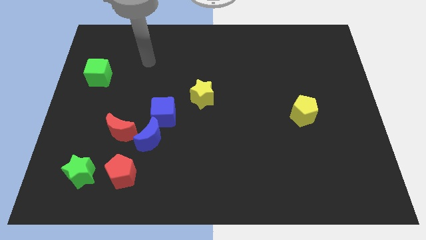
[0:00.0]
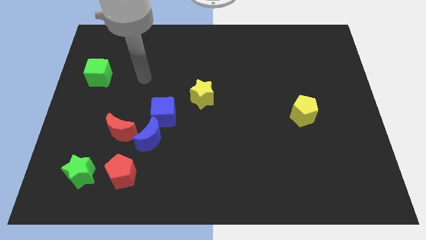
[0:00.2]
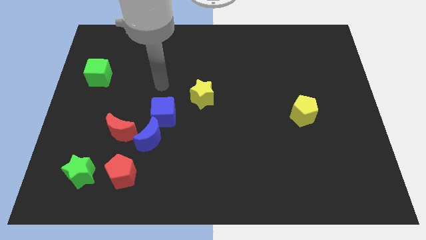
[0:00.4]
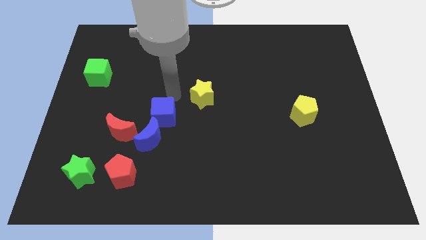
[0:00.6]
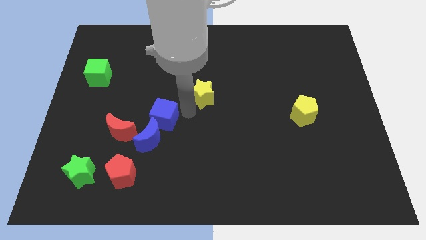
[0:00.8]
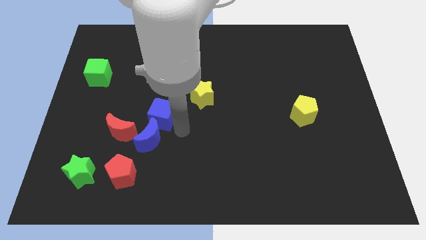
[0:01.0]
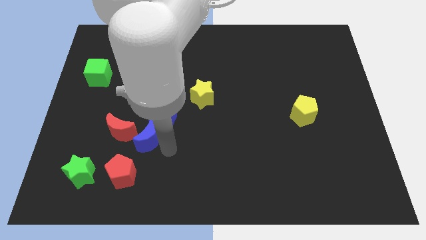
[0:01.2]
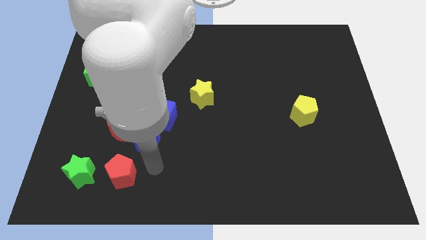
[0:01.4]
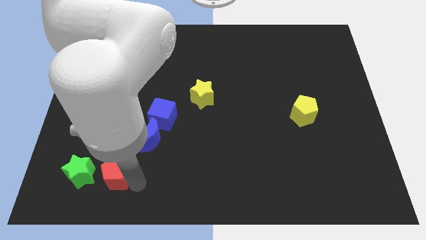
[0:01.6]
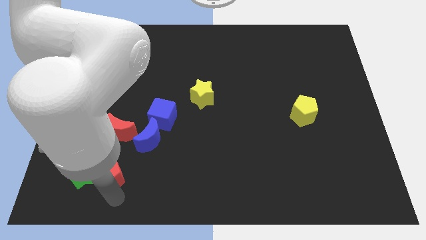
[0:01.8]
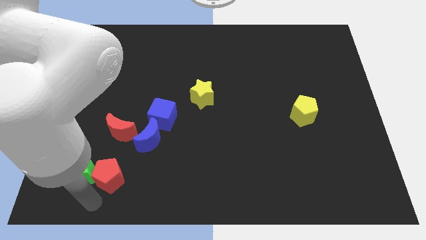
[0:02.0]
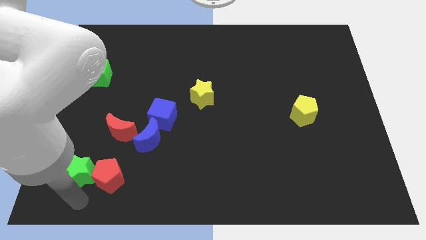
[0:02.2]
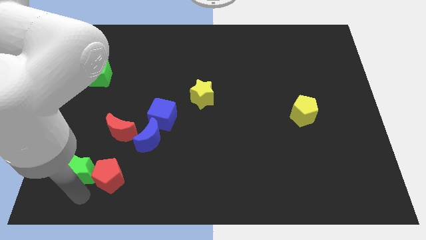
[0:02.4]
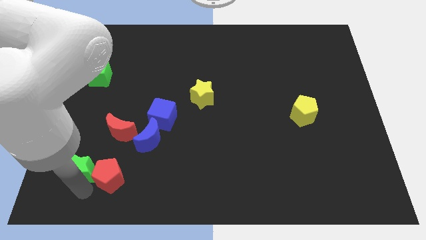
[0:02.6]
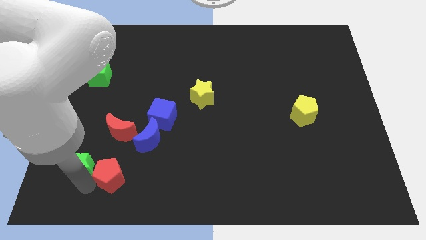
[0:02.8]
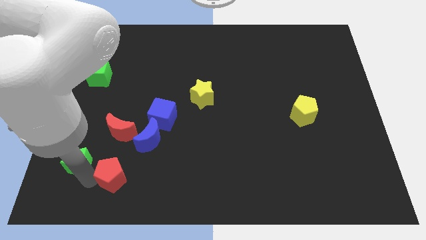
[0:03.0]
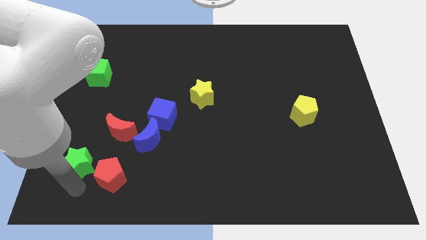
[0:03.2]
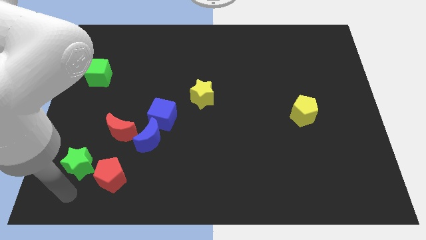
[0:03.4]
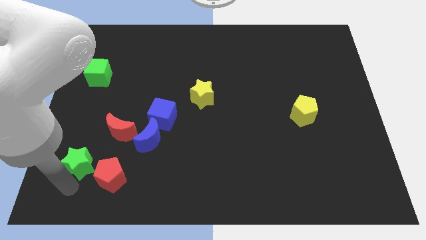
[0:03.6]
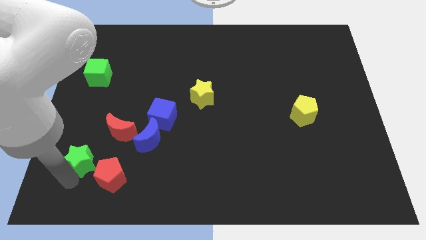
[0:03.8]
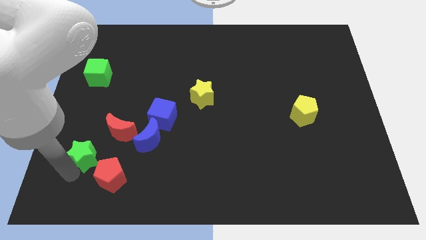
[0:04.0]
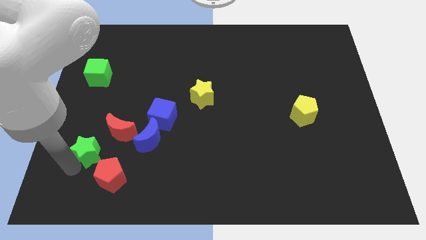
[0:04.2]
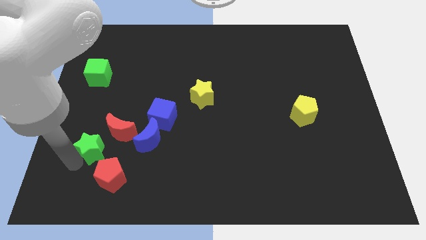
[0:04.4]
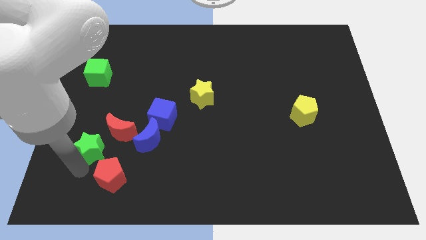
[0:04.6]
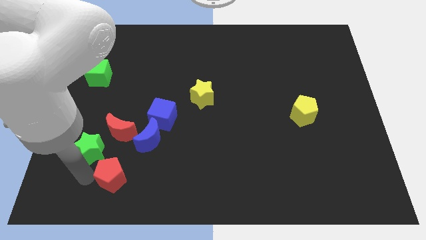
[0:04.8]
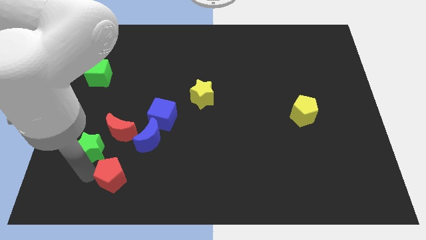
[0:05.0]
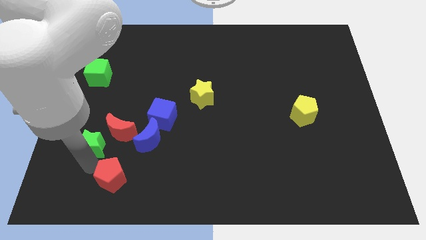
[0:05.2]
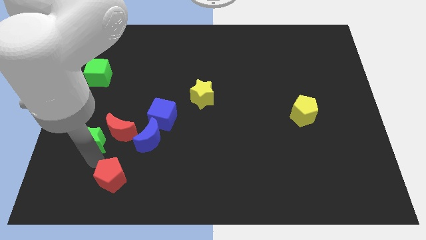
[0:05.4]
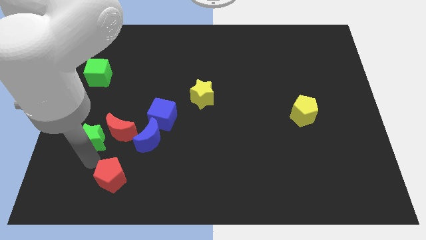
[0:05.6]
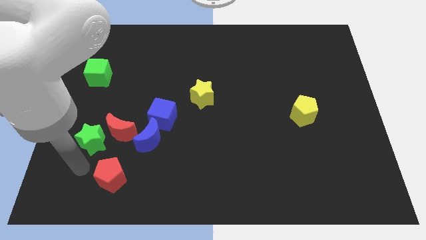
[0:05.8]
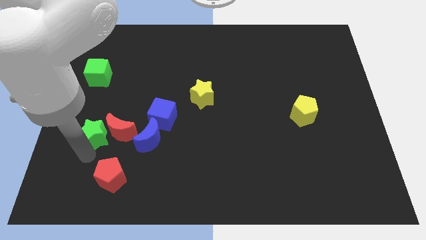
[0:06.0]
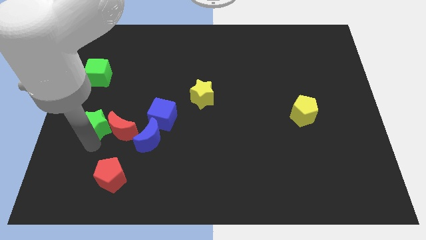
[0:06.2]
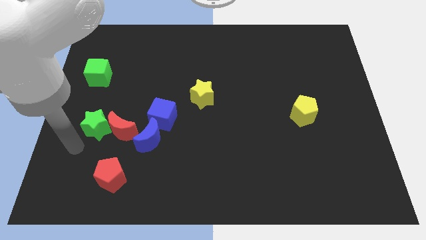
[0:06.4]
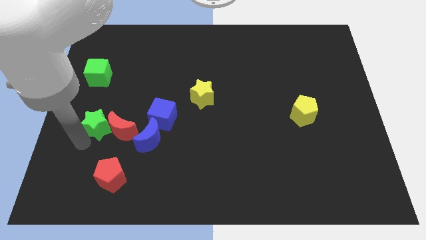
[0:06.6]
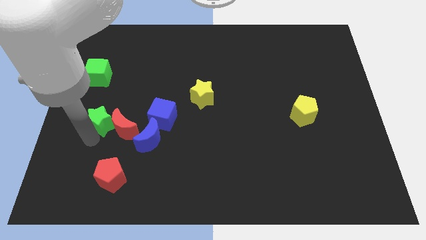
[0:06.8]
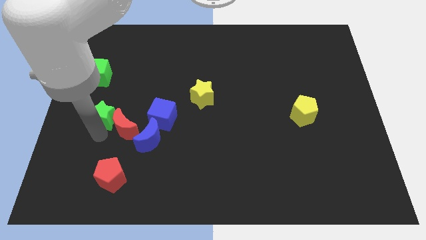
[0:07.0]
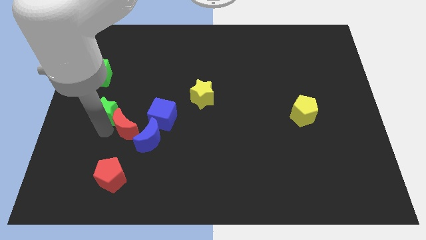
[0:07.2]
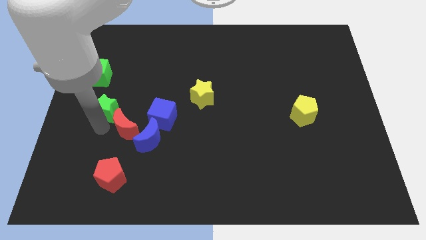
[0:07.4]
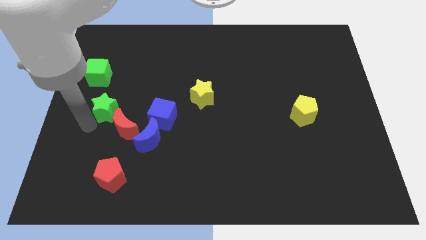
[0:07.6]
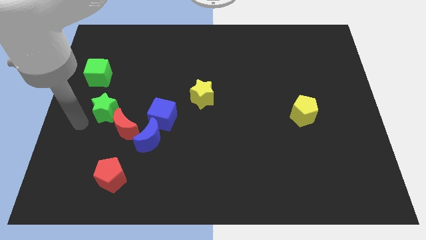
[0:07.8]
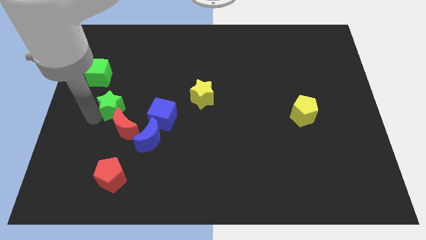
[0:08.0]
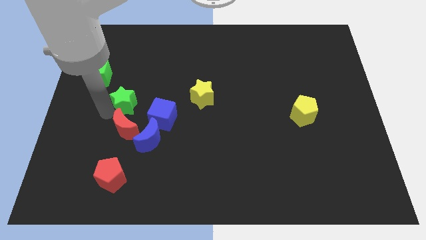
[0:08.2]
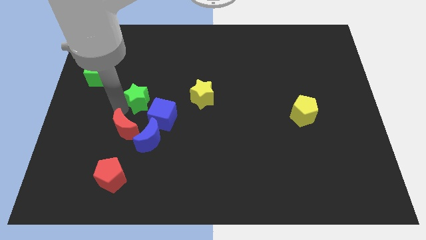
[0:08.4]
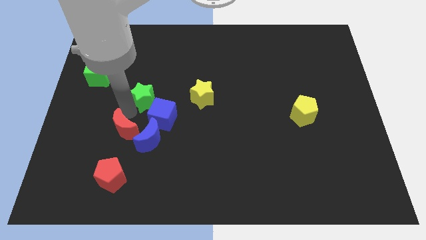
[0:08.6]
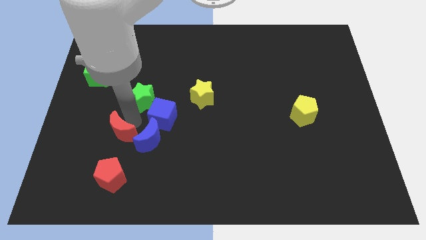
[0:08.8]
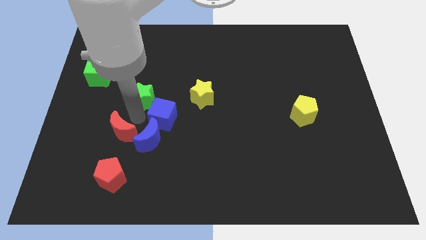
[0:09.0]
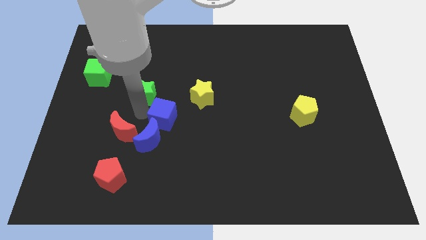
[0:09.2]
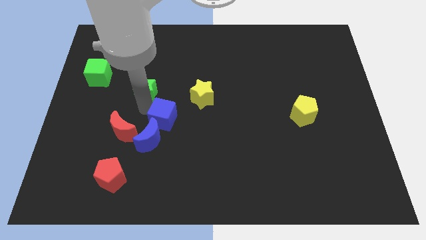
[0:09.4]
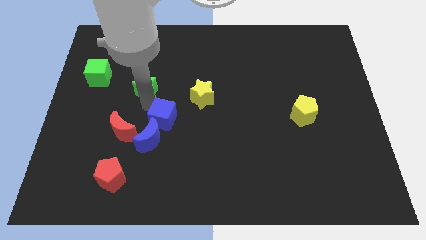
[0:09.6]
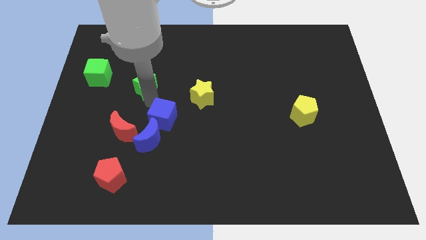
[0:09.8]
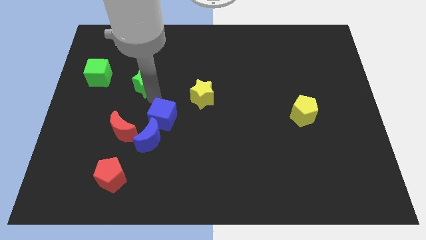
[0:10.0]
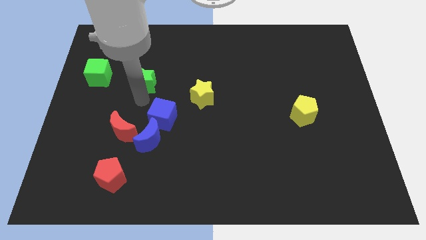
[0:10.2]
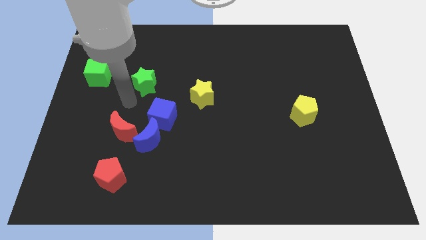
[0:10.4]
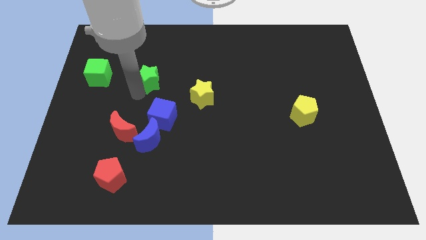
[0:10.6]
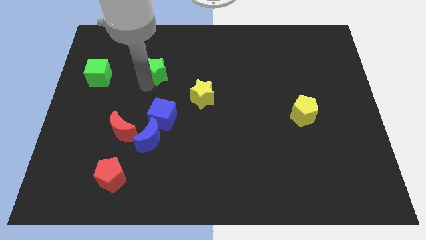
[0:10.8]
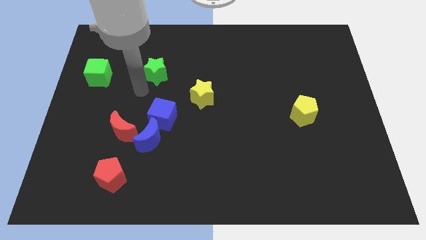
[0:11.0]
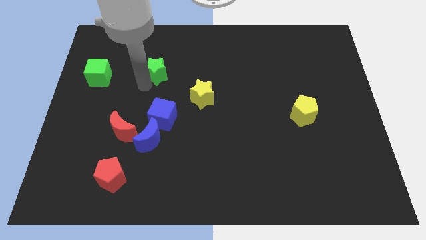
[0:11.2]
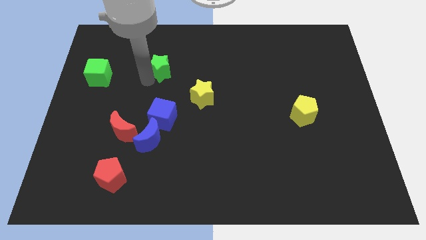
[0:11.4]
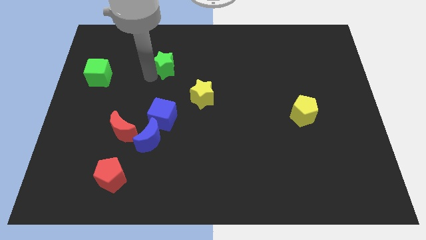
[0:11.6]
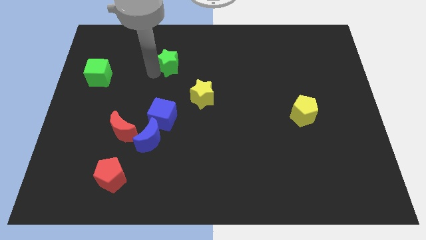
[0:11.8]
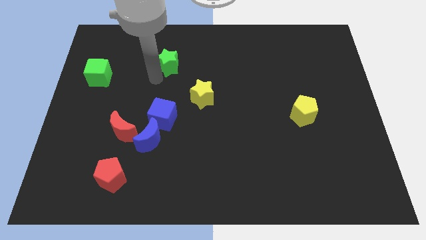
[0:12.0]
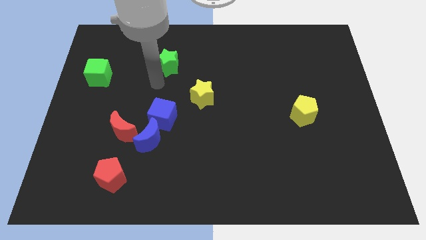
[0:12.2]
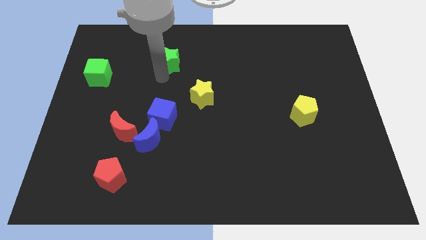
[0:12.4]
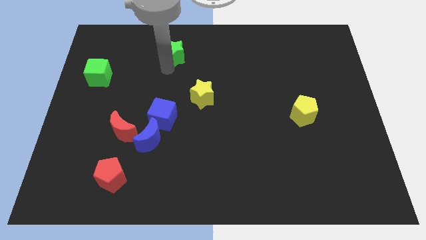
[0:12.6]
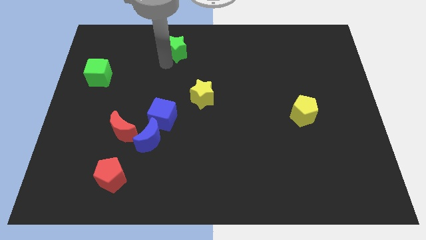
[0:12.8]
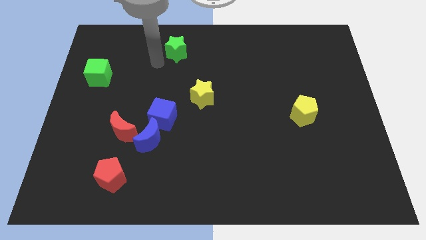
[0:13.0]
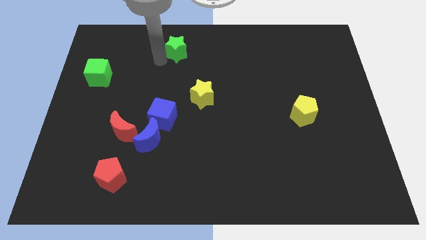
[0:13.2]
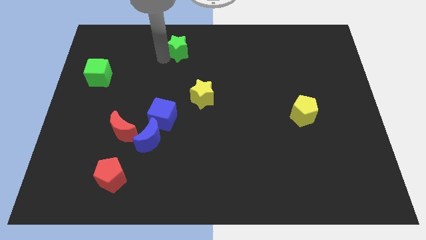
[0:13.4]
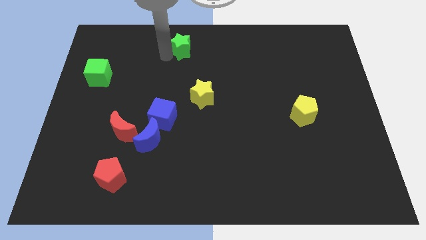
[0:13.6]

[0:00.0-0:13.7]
slide the green star to the towards your base
